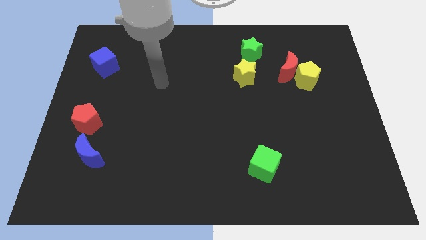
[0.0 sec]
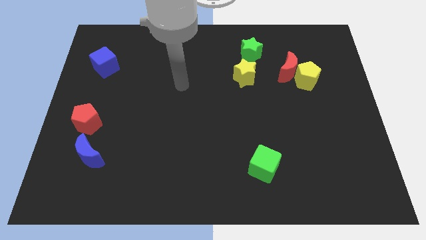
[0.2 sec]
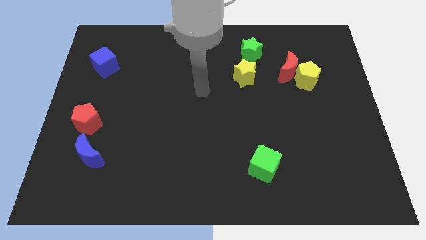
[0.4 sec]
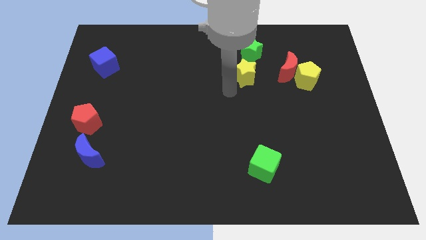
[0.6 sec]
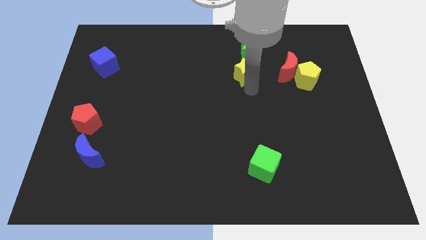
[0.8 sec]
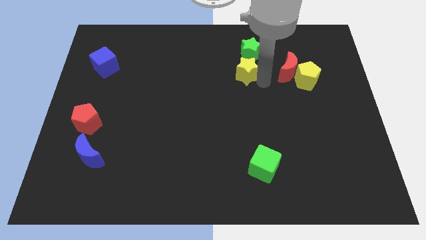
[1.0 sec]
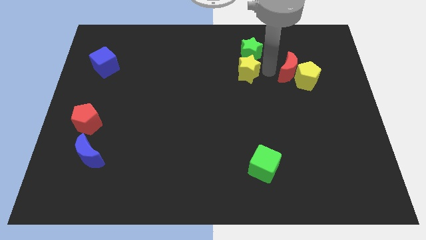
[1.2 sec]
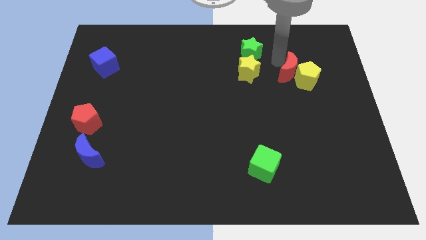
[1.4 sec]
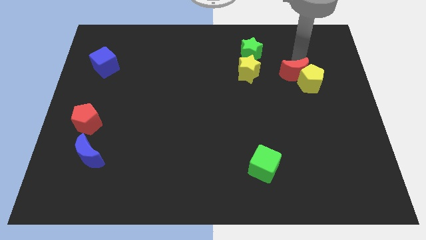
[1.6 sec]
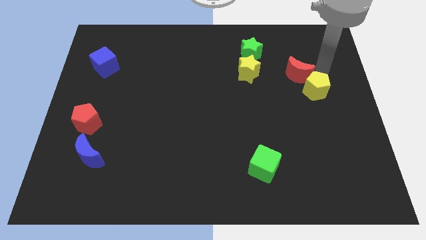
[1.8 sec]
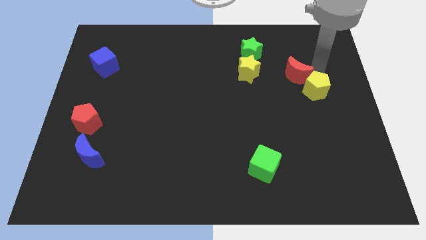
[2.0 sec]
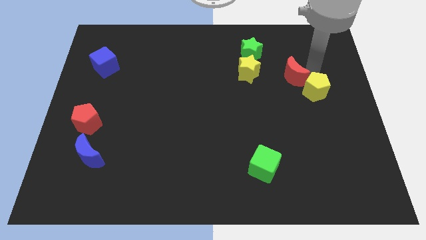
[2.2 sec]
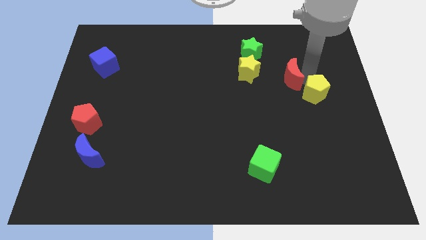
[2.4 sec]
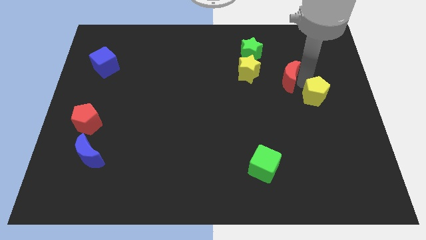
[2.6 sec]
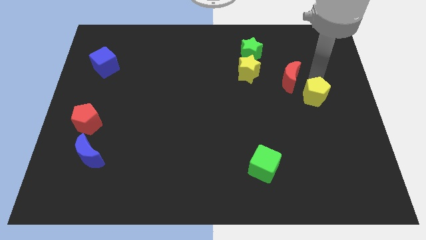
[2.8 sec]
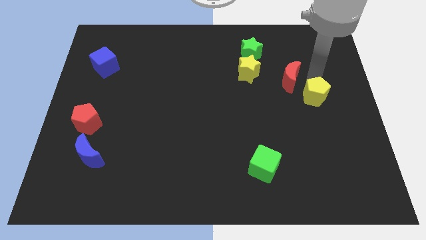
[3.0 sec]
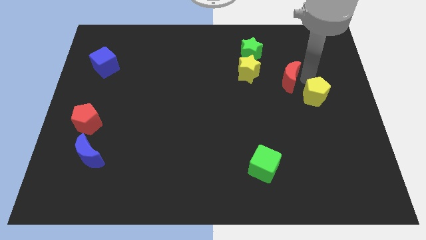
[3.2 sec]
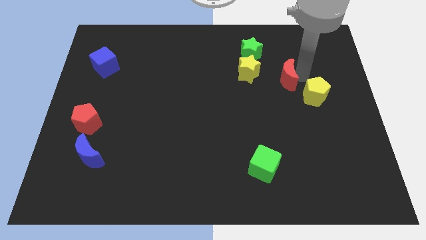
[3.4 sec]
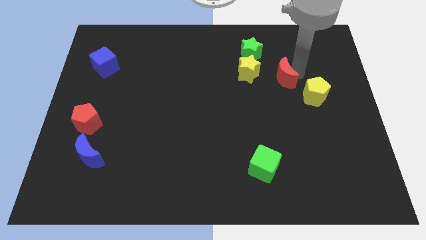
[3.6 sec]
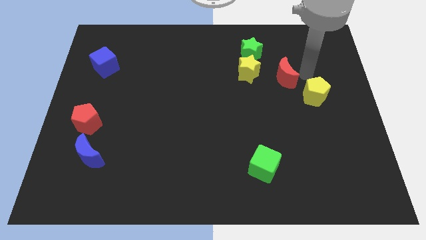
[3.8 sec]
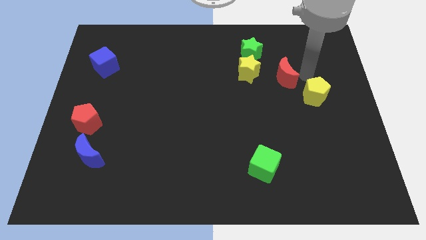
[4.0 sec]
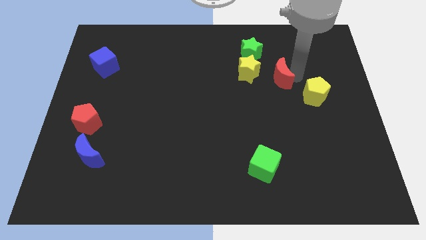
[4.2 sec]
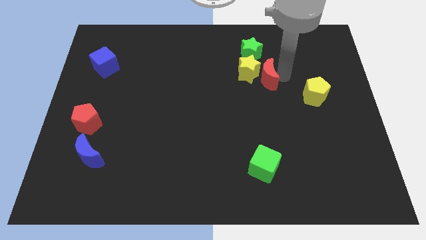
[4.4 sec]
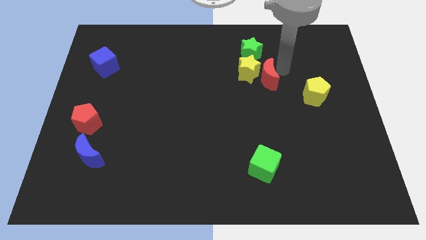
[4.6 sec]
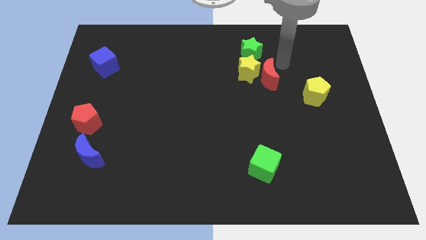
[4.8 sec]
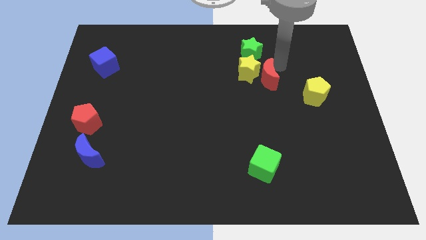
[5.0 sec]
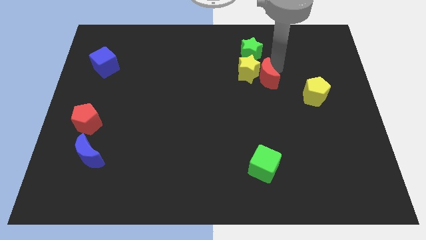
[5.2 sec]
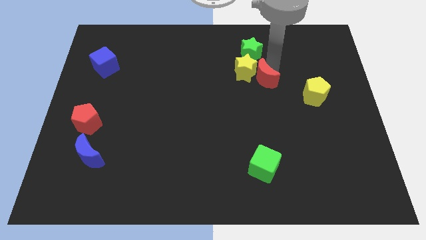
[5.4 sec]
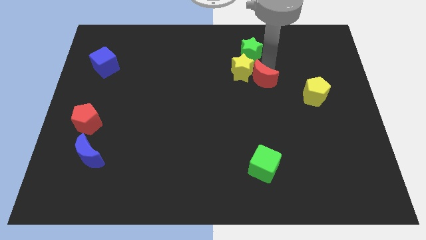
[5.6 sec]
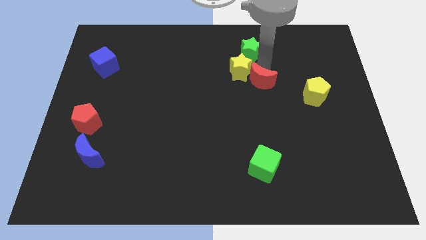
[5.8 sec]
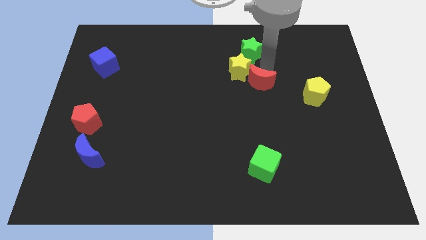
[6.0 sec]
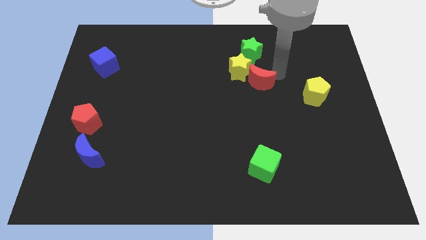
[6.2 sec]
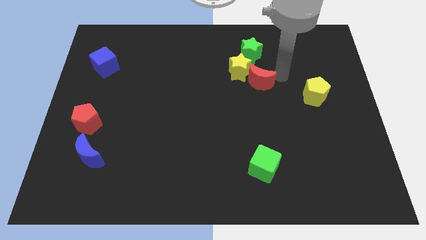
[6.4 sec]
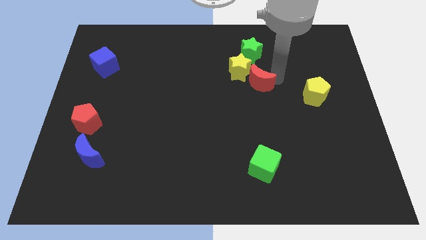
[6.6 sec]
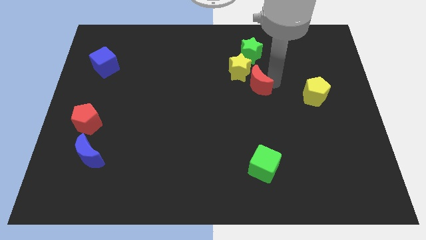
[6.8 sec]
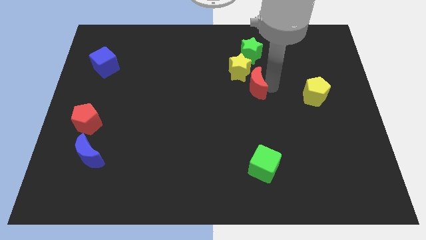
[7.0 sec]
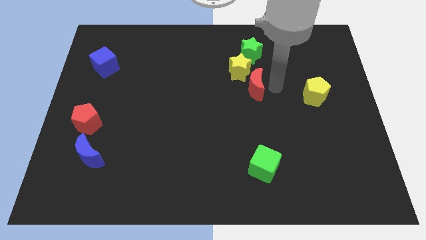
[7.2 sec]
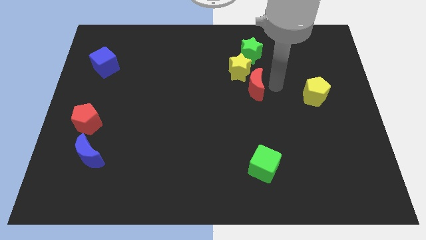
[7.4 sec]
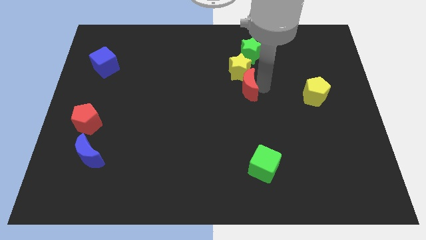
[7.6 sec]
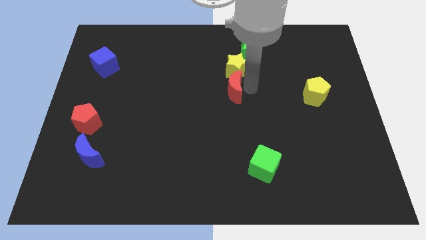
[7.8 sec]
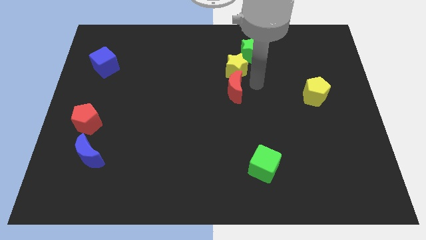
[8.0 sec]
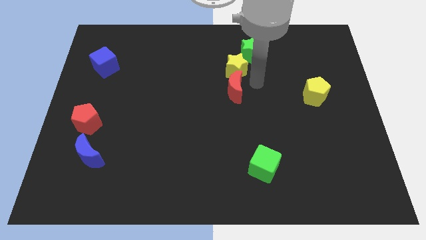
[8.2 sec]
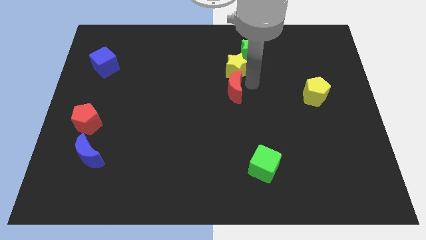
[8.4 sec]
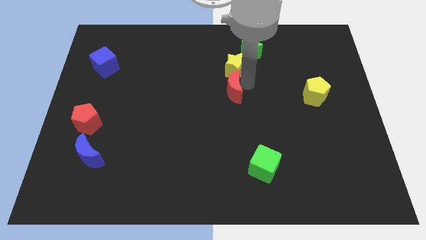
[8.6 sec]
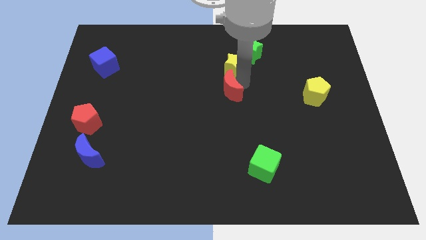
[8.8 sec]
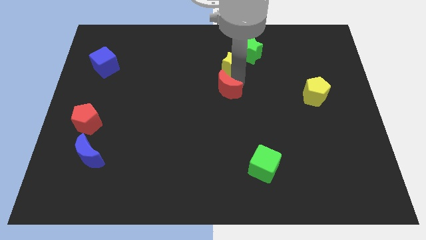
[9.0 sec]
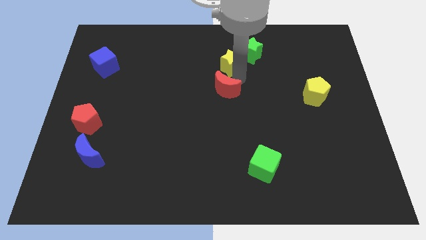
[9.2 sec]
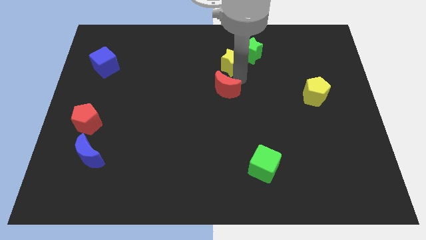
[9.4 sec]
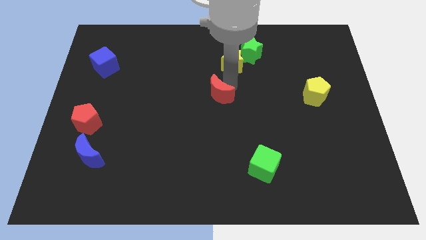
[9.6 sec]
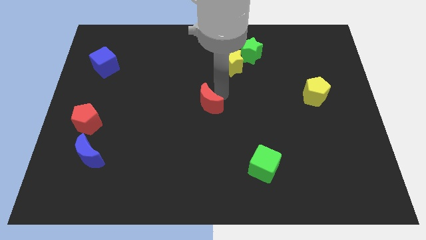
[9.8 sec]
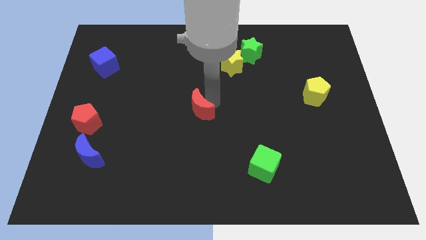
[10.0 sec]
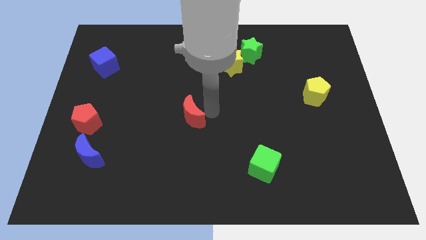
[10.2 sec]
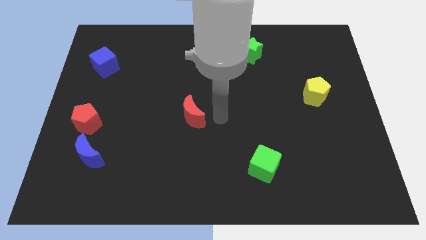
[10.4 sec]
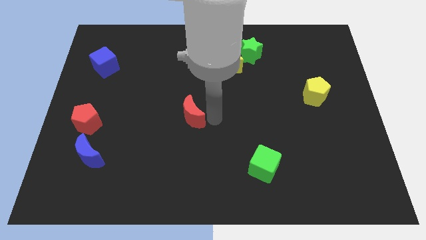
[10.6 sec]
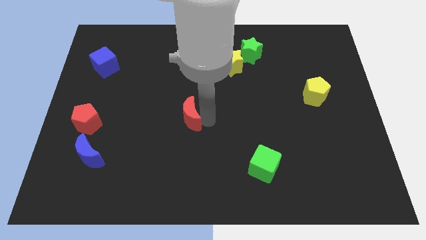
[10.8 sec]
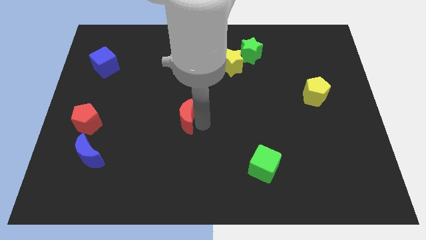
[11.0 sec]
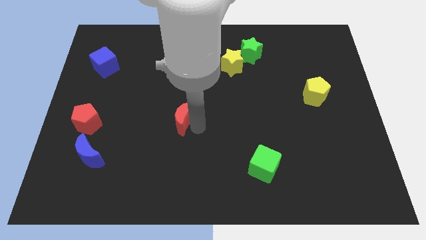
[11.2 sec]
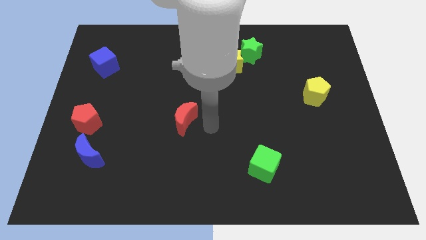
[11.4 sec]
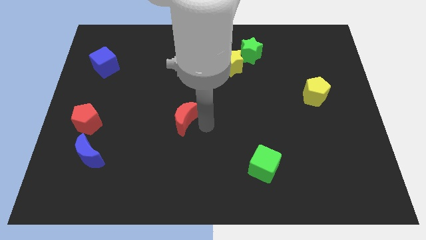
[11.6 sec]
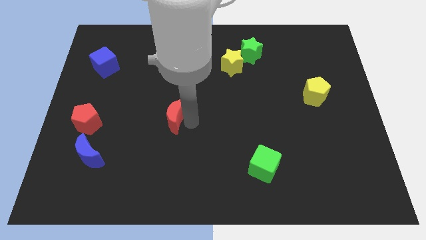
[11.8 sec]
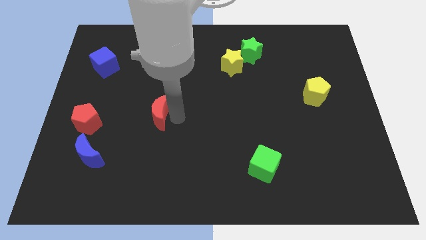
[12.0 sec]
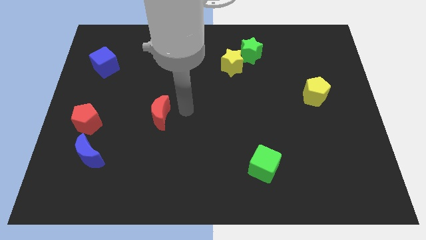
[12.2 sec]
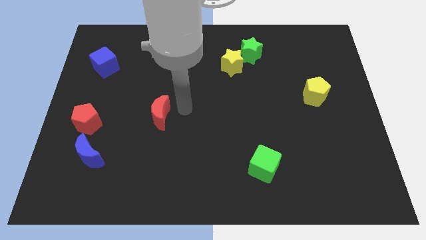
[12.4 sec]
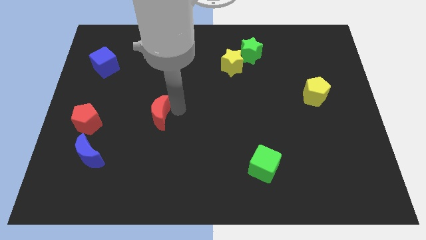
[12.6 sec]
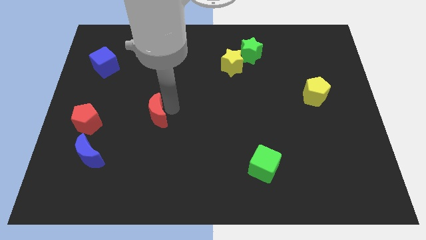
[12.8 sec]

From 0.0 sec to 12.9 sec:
slide the red moon to the right side of the red pentagon

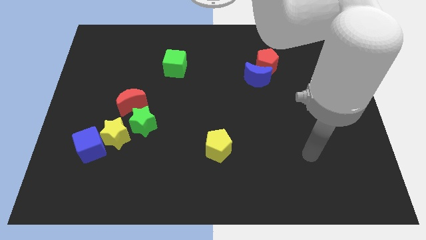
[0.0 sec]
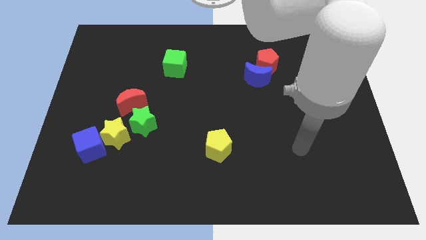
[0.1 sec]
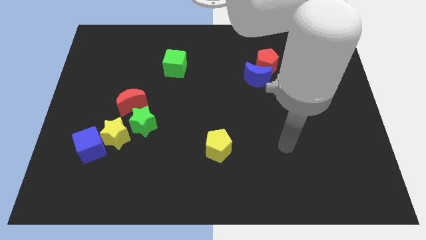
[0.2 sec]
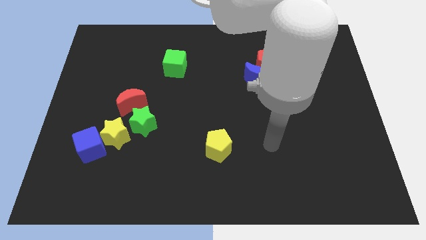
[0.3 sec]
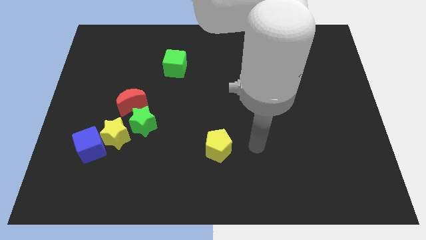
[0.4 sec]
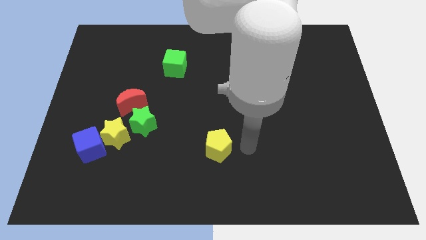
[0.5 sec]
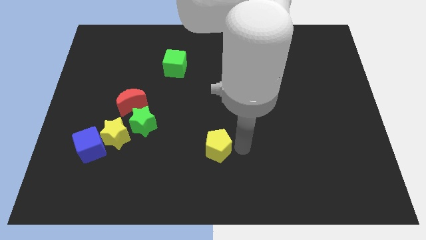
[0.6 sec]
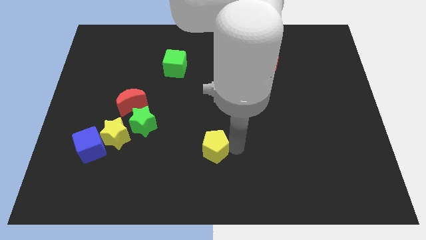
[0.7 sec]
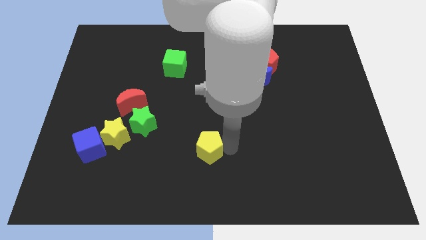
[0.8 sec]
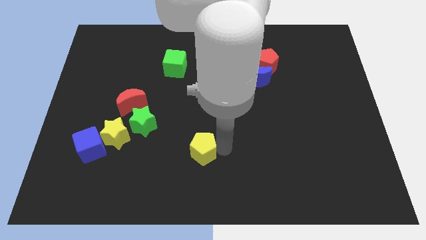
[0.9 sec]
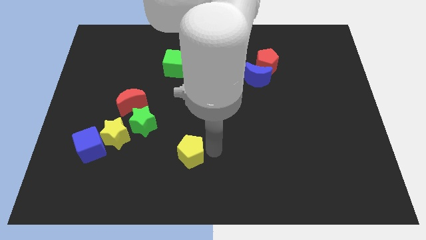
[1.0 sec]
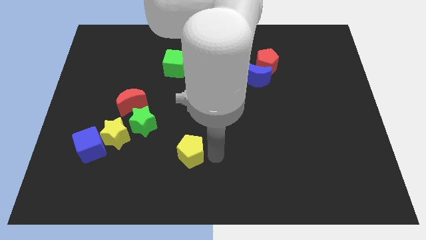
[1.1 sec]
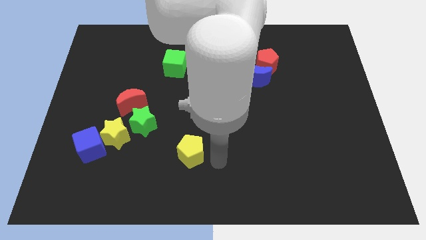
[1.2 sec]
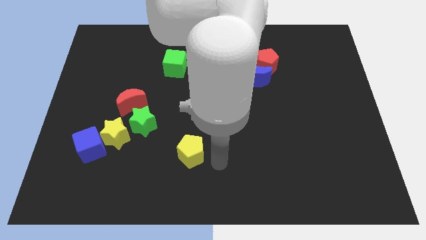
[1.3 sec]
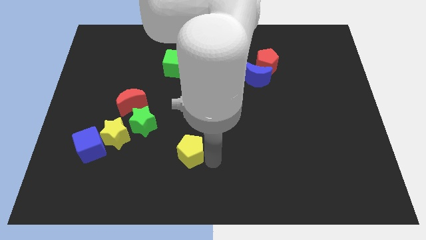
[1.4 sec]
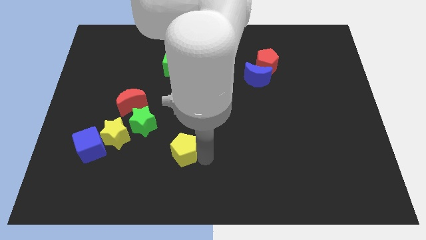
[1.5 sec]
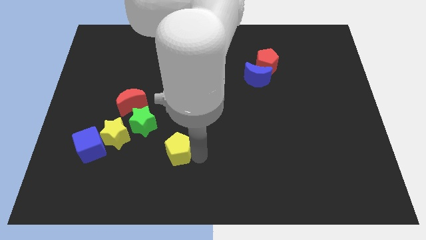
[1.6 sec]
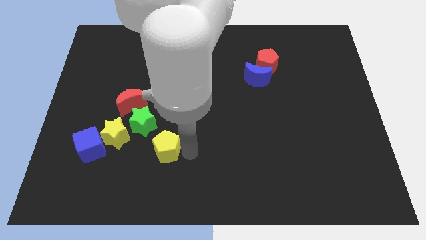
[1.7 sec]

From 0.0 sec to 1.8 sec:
slide the yellow pentagon to the right side of the blue cube
